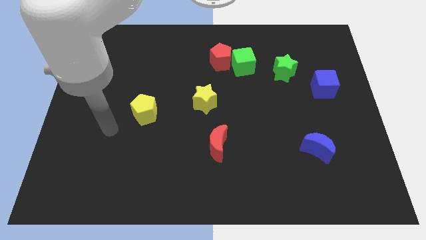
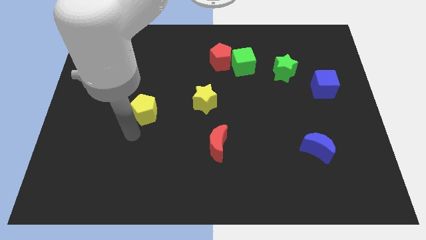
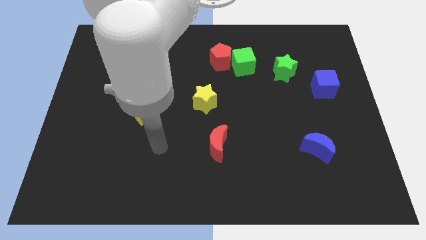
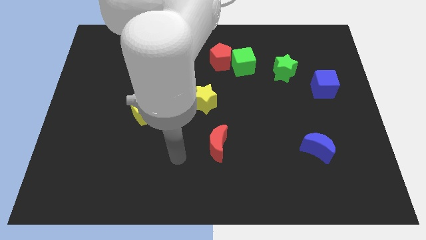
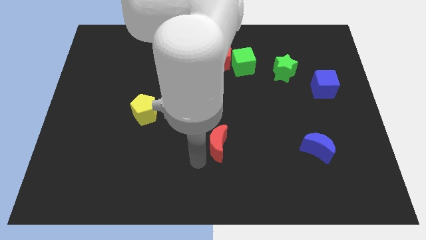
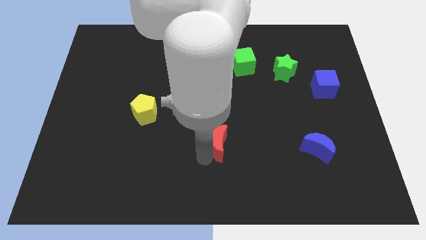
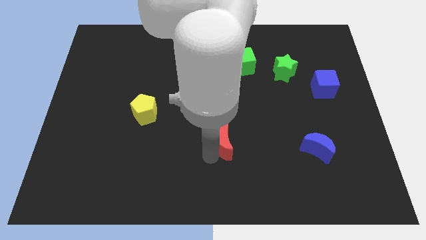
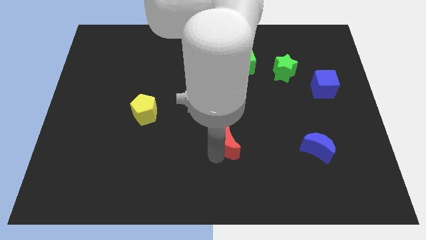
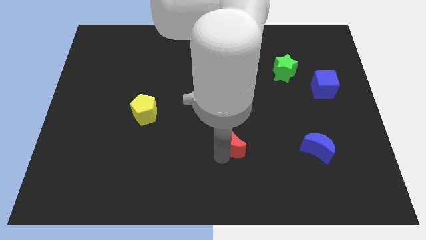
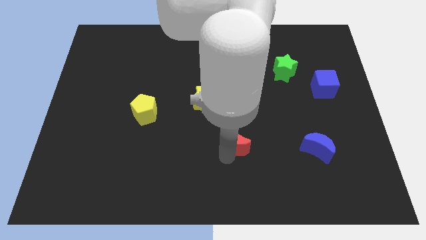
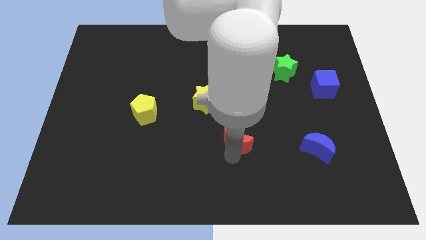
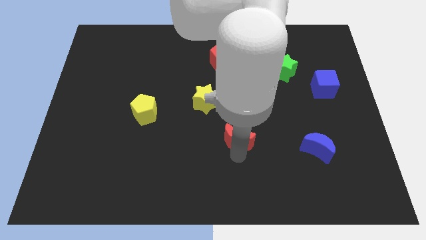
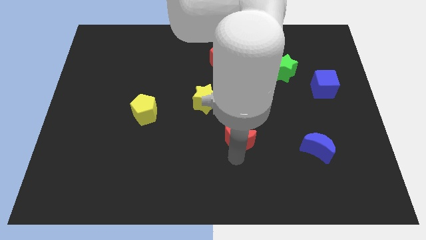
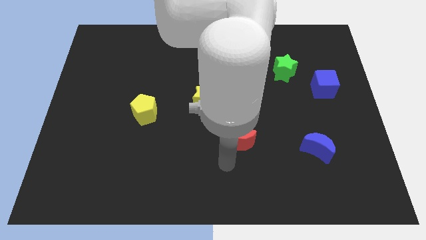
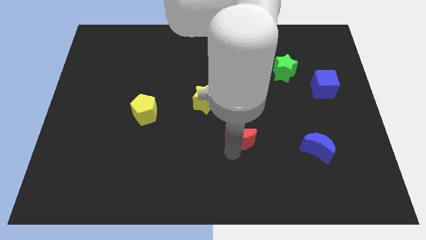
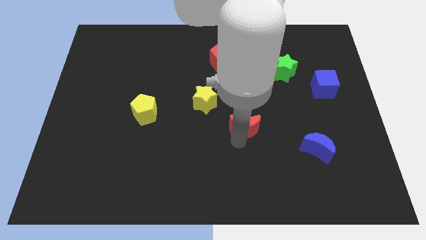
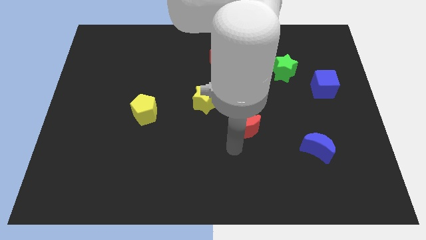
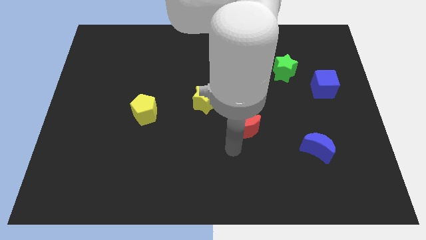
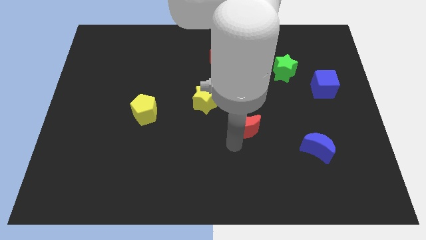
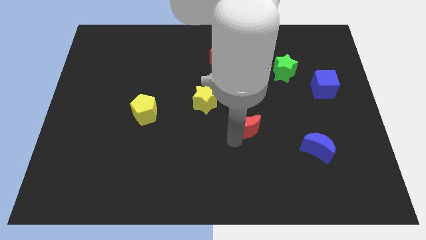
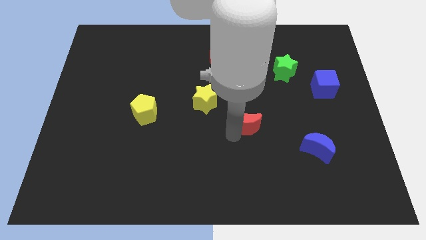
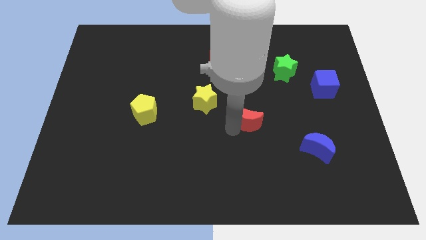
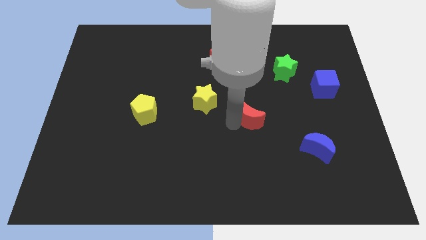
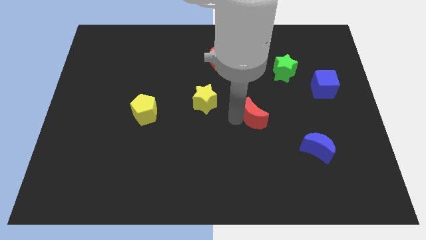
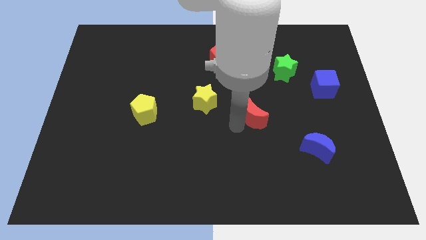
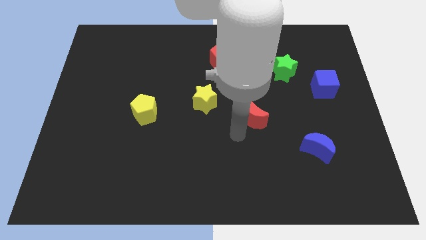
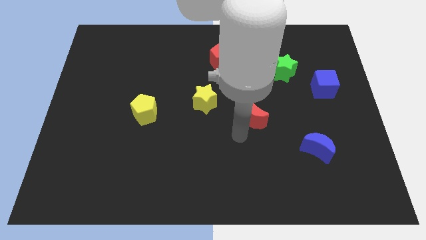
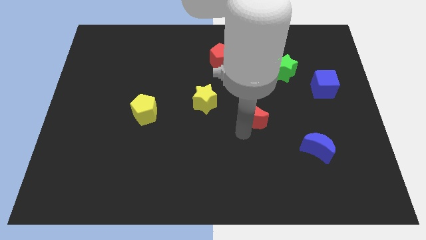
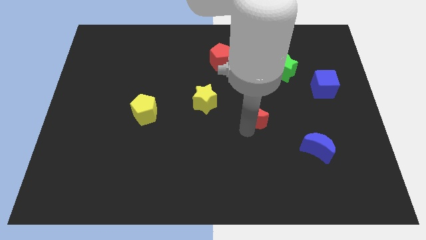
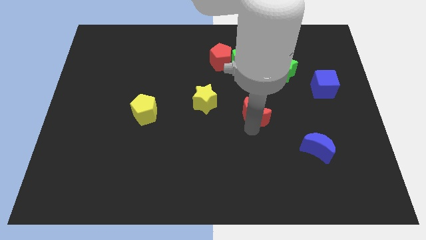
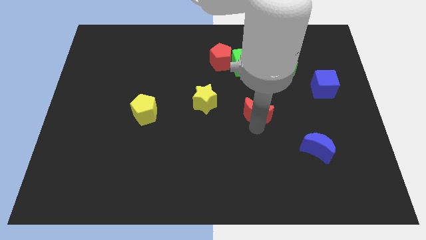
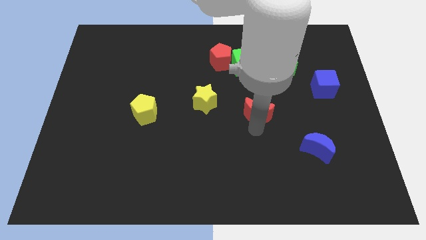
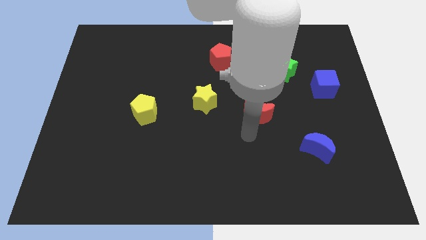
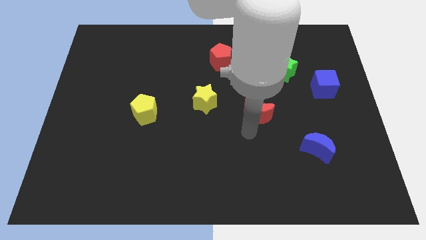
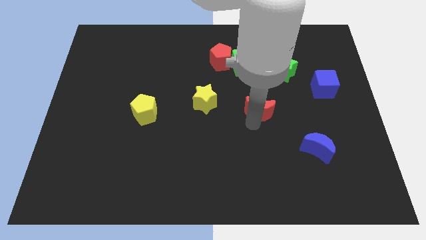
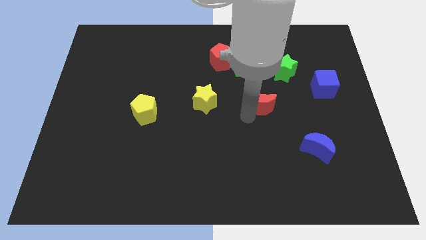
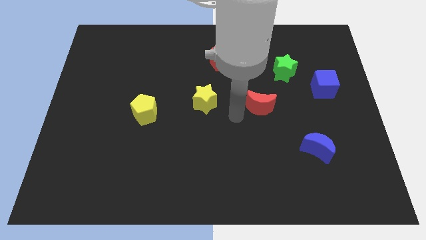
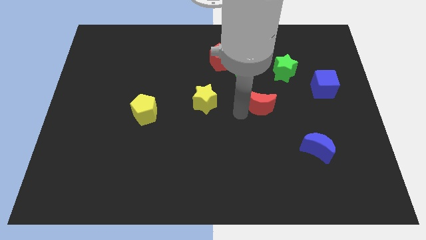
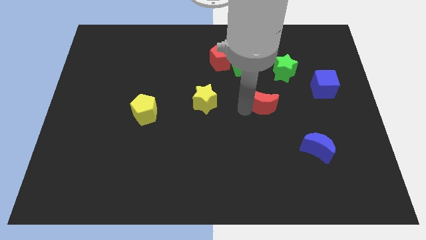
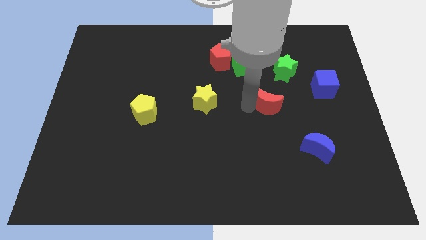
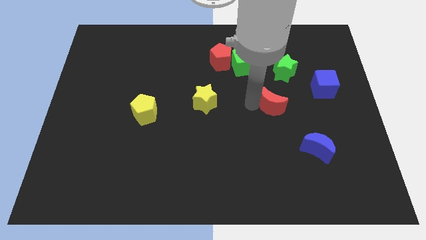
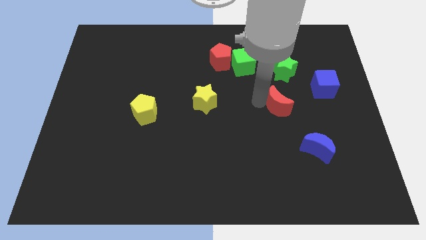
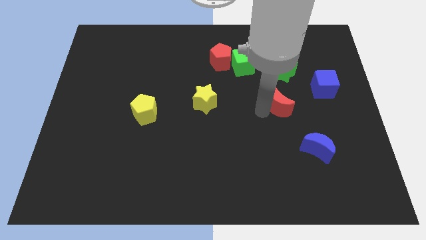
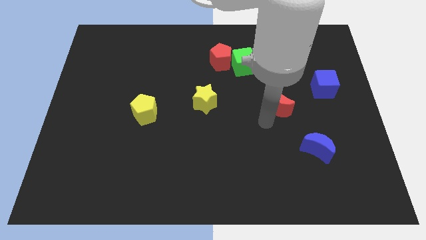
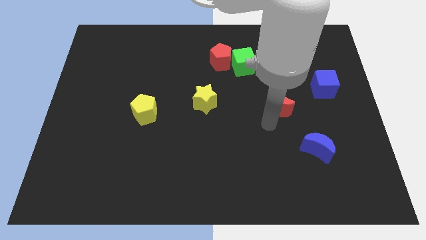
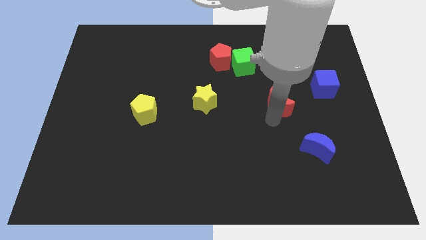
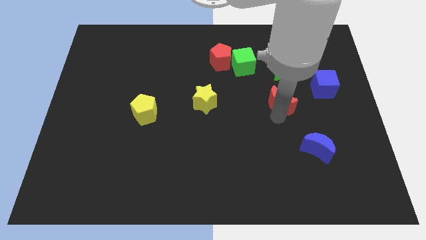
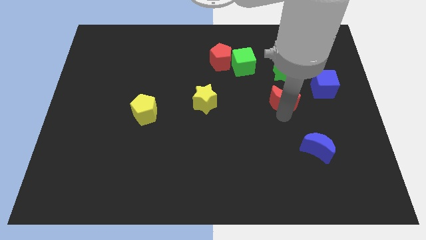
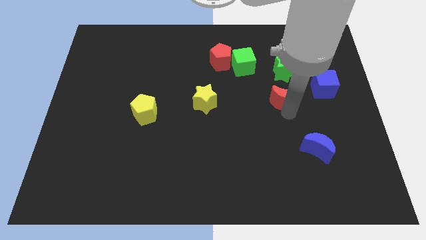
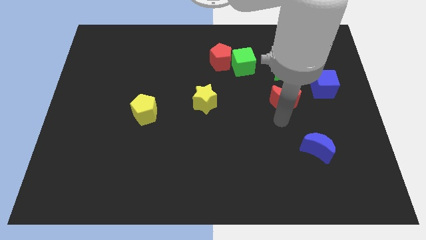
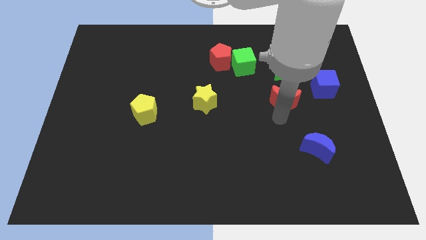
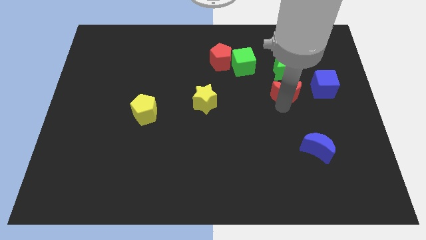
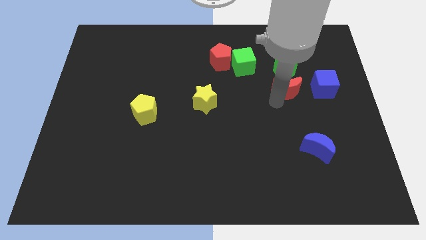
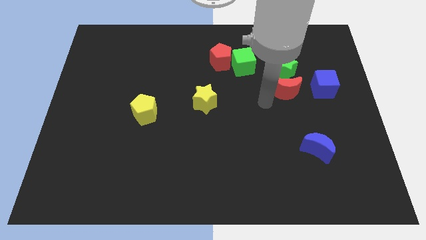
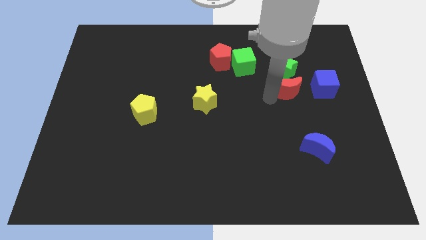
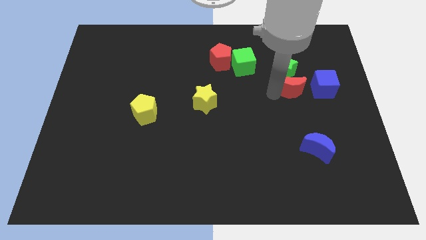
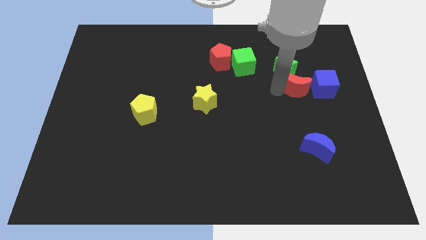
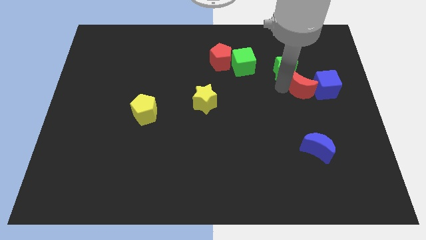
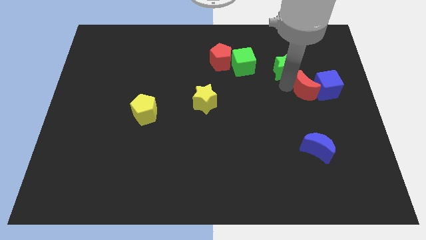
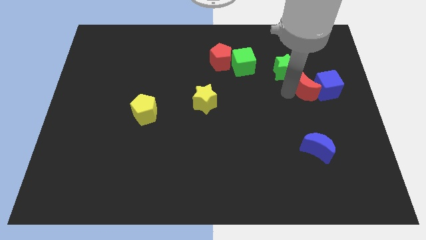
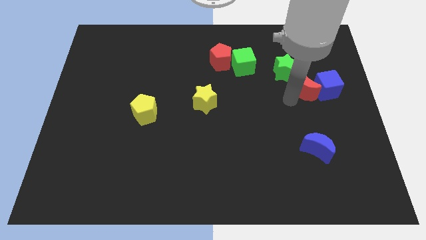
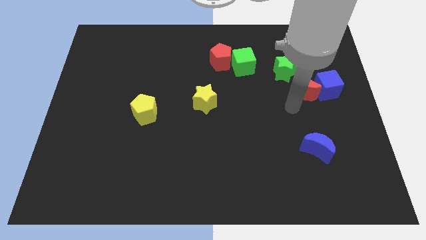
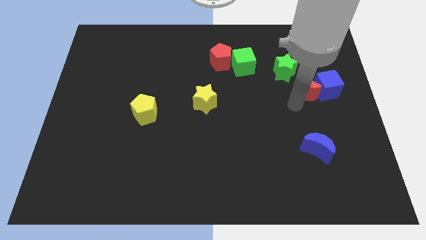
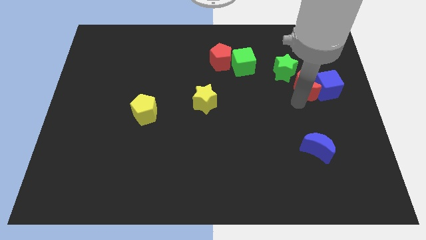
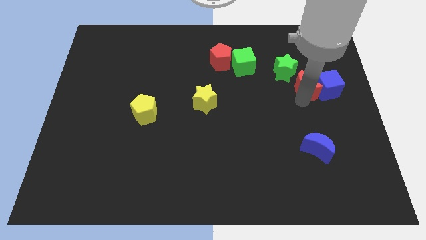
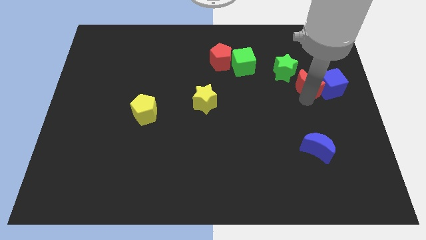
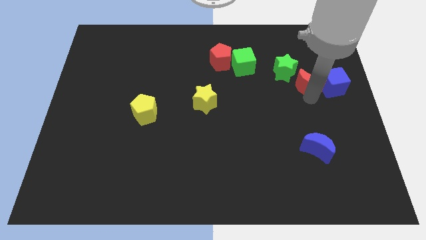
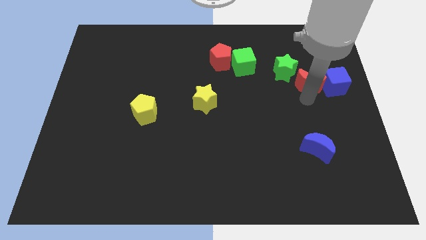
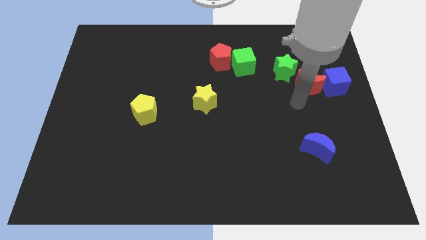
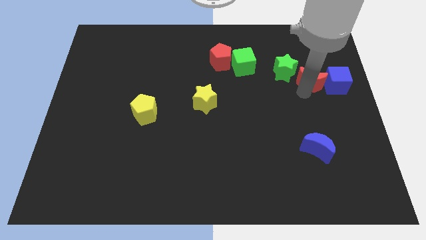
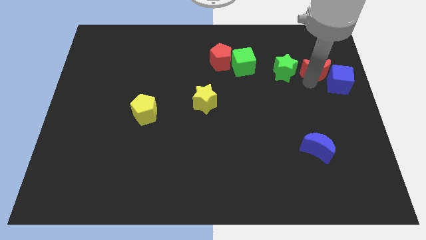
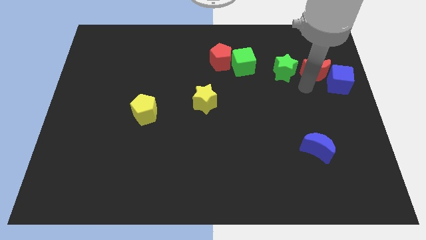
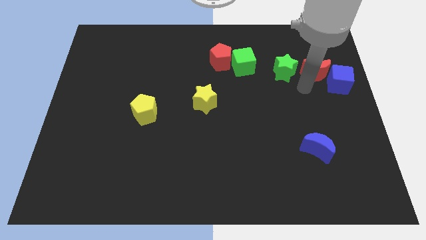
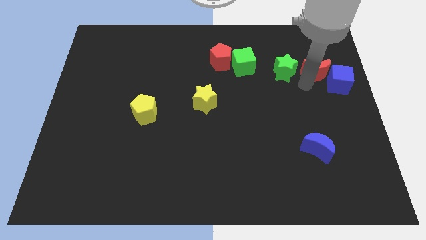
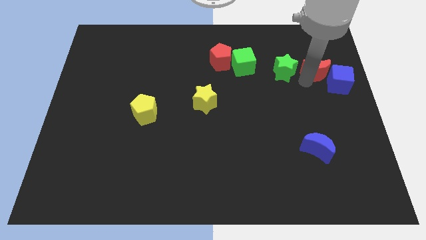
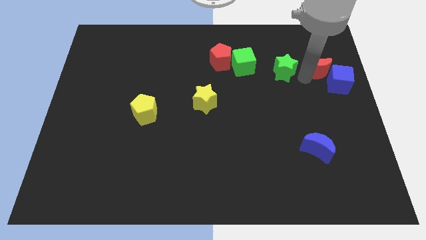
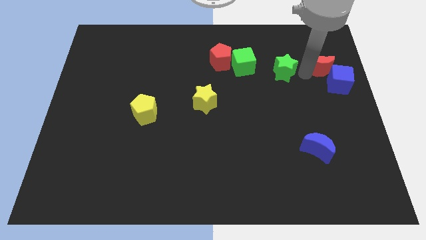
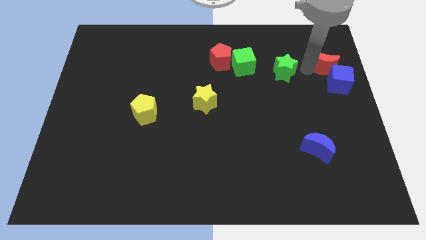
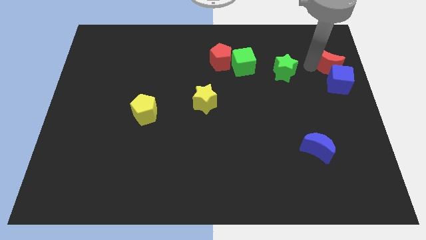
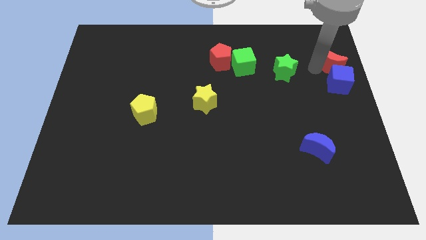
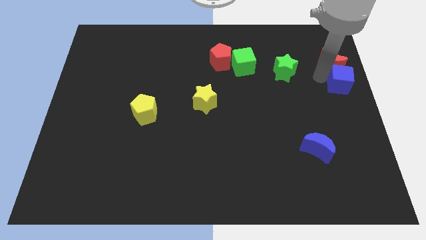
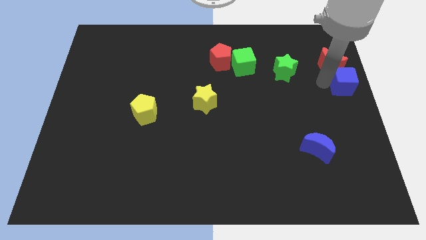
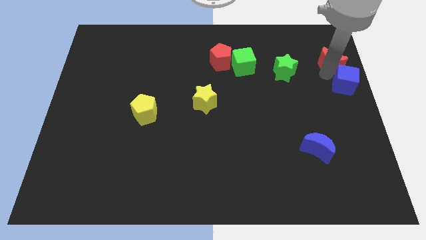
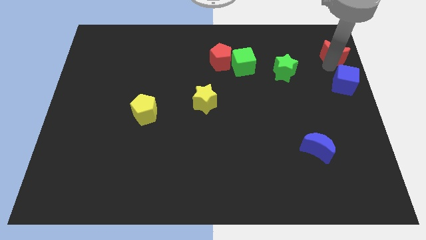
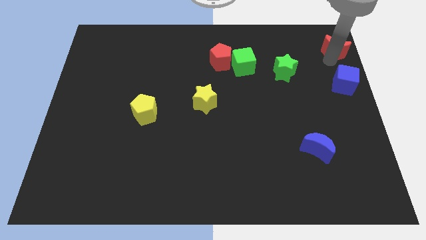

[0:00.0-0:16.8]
push the red moon to the top right corner
